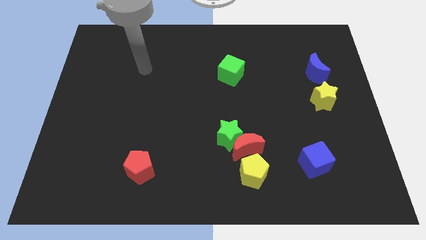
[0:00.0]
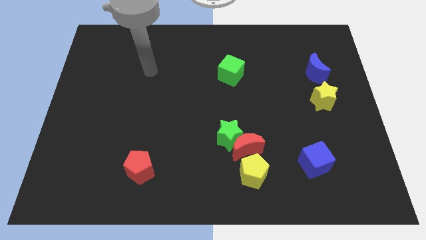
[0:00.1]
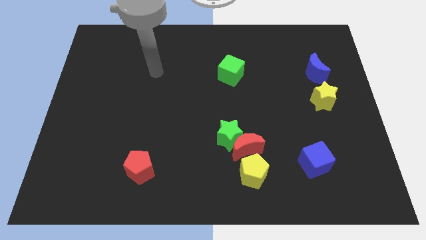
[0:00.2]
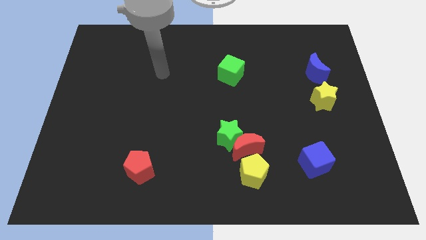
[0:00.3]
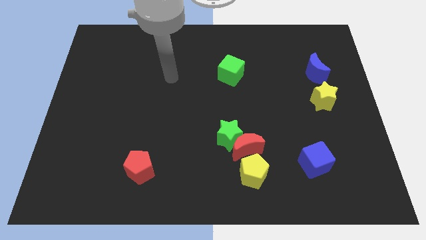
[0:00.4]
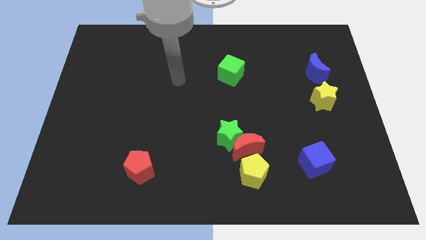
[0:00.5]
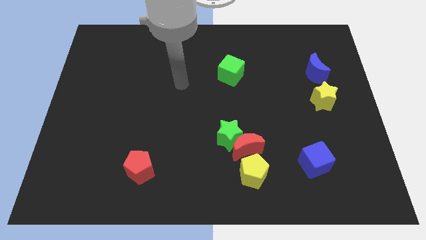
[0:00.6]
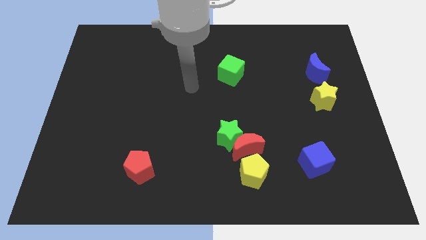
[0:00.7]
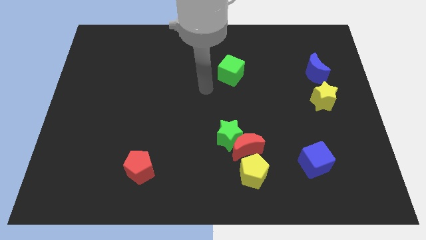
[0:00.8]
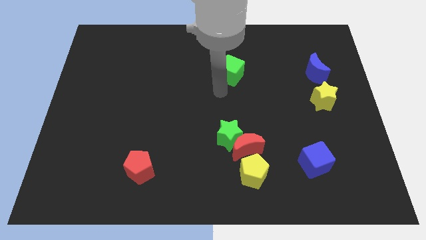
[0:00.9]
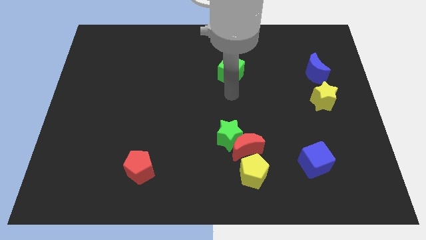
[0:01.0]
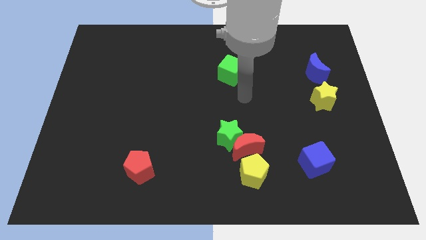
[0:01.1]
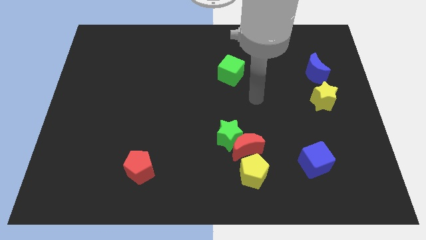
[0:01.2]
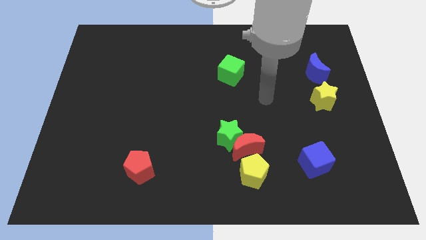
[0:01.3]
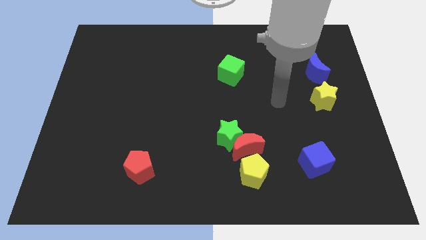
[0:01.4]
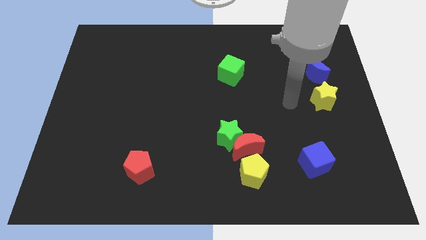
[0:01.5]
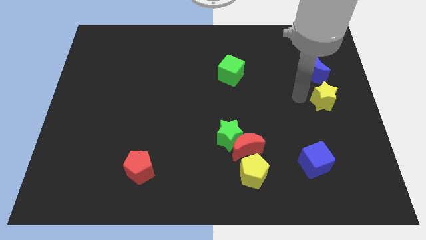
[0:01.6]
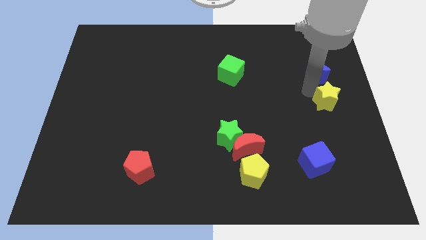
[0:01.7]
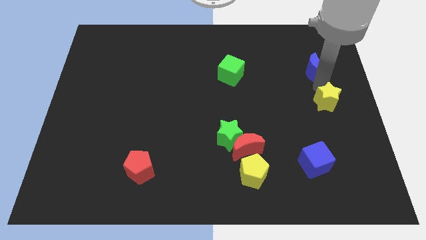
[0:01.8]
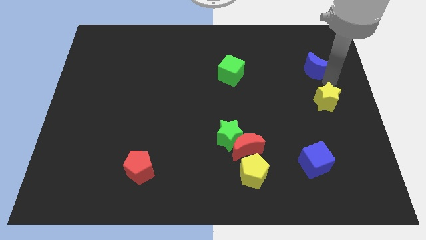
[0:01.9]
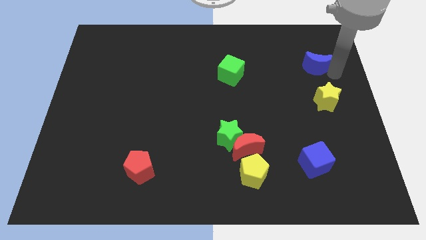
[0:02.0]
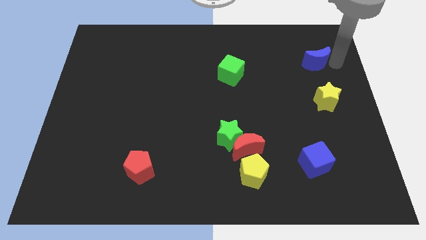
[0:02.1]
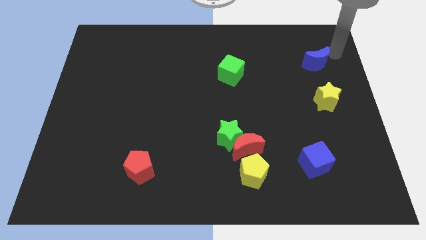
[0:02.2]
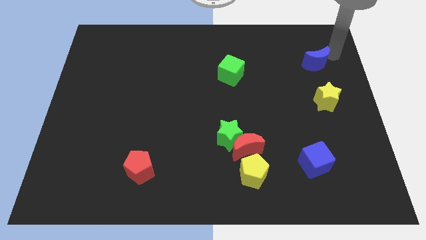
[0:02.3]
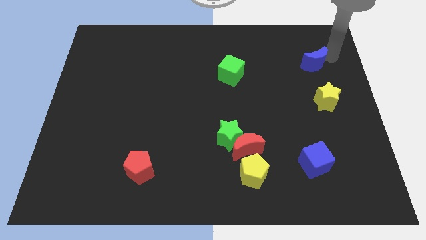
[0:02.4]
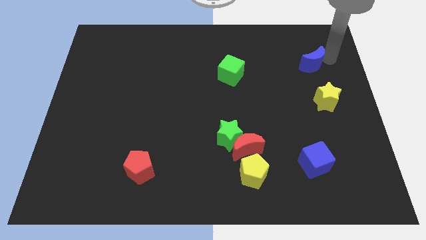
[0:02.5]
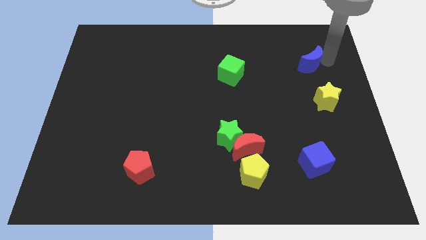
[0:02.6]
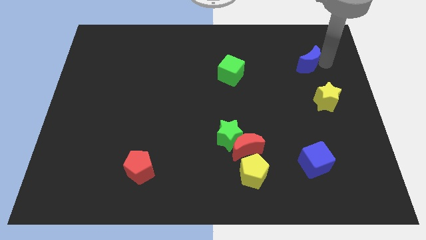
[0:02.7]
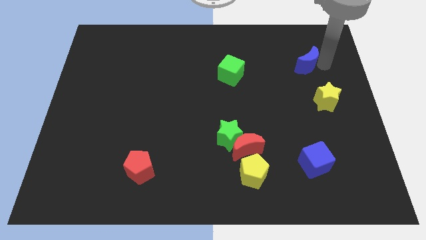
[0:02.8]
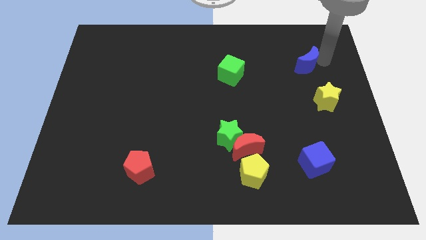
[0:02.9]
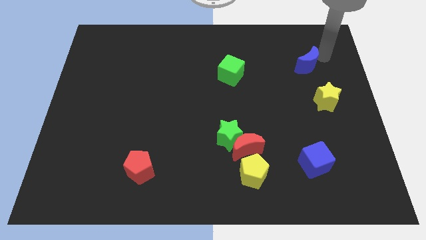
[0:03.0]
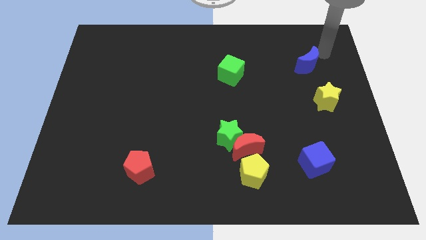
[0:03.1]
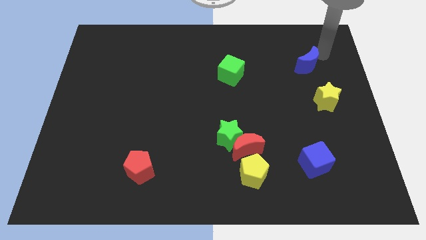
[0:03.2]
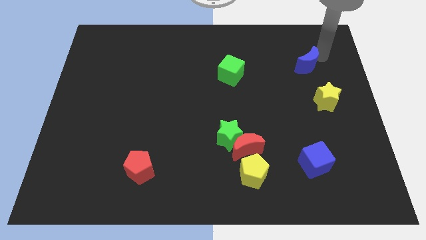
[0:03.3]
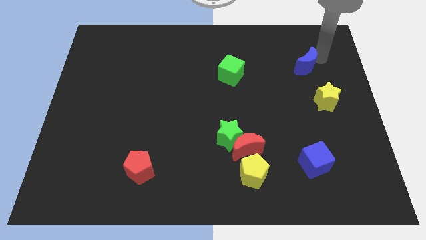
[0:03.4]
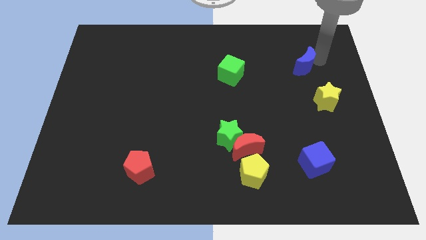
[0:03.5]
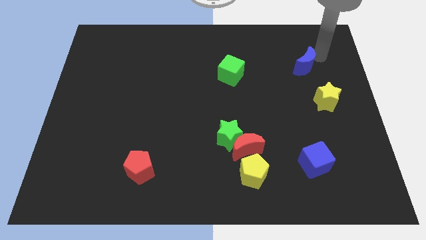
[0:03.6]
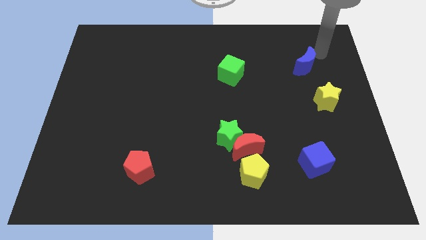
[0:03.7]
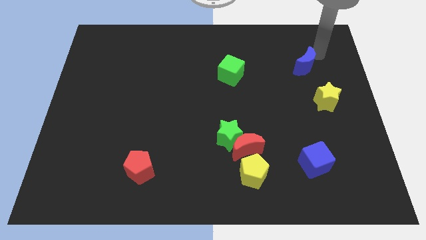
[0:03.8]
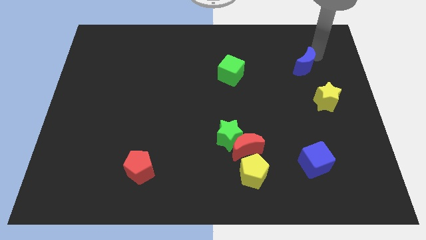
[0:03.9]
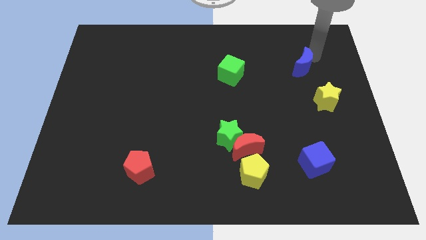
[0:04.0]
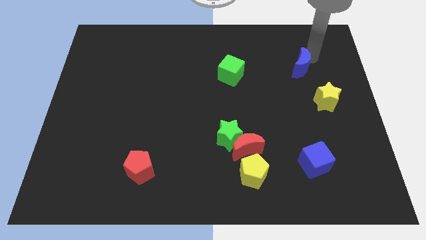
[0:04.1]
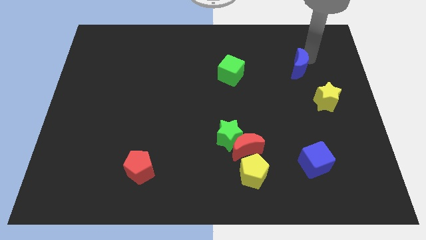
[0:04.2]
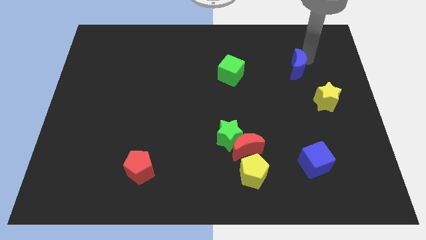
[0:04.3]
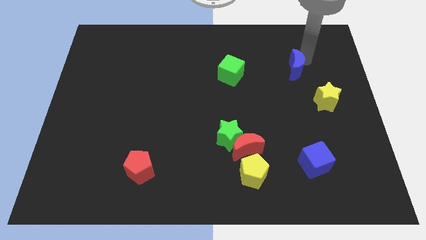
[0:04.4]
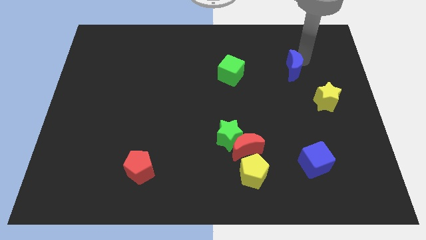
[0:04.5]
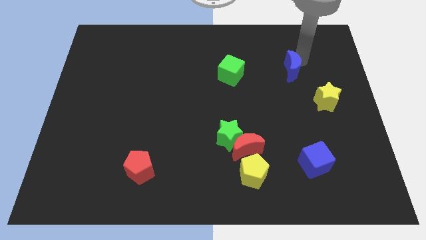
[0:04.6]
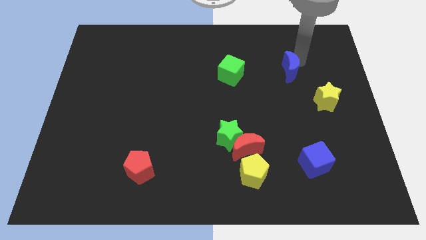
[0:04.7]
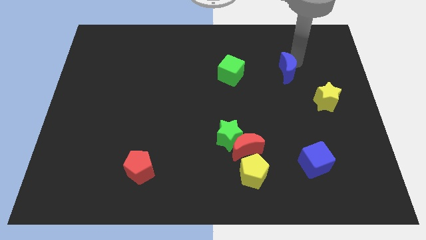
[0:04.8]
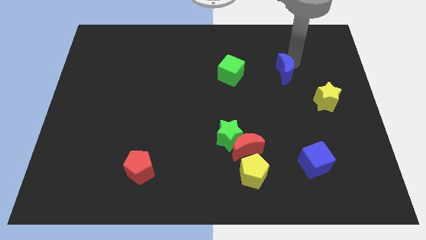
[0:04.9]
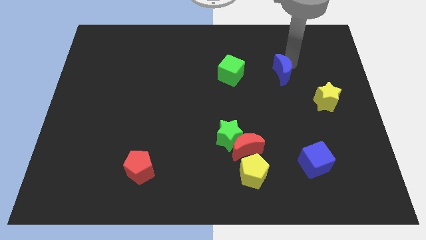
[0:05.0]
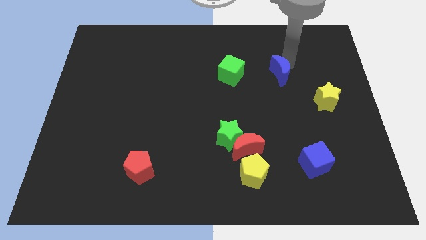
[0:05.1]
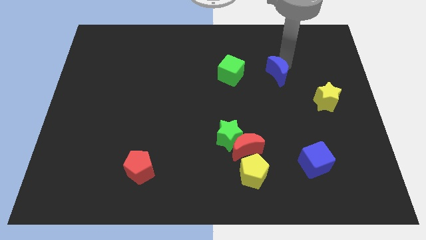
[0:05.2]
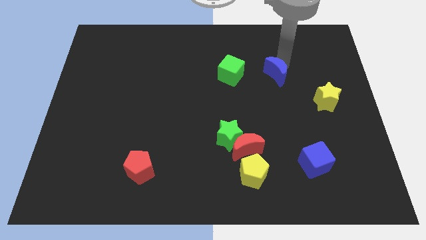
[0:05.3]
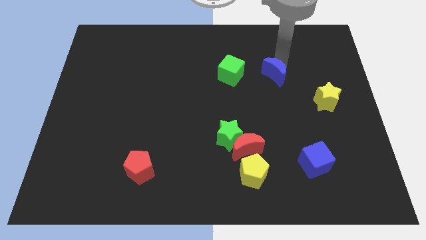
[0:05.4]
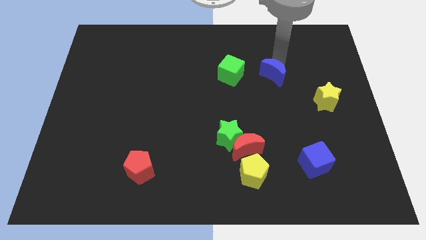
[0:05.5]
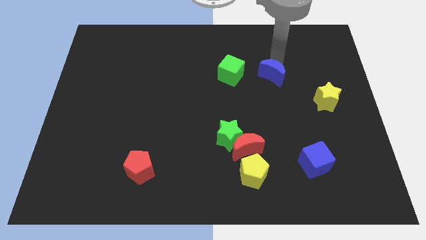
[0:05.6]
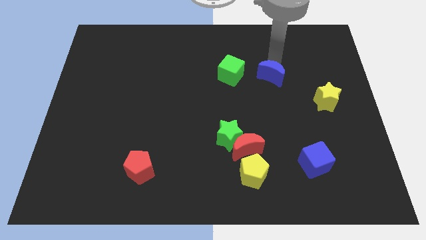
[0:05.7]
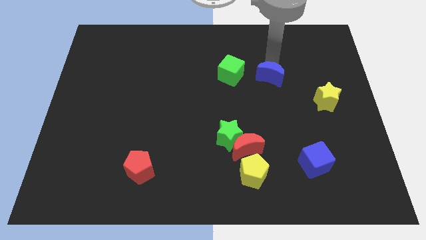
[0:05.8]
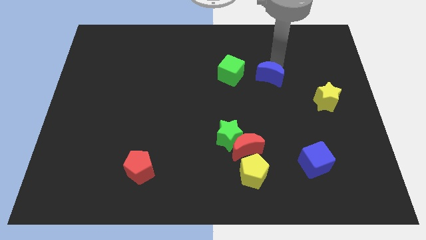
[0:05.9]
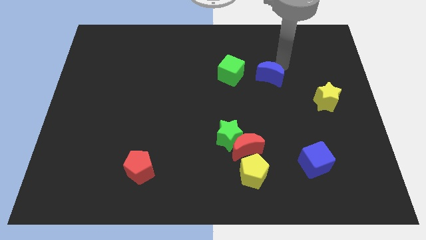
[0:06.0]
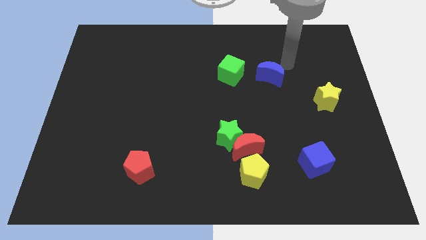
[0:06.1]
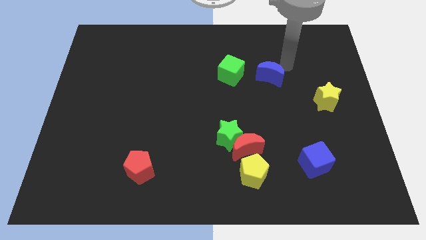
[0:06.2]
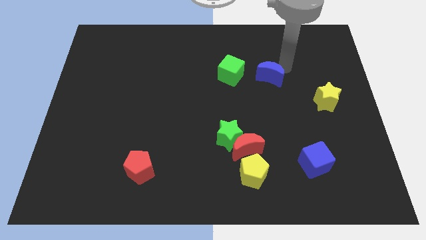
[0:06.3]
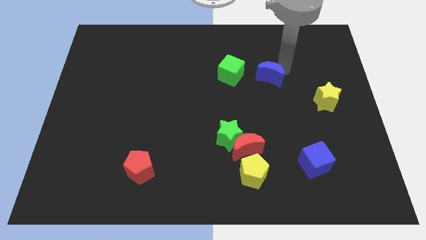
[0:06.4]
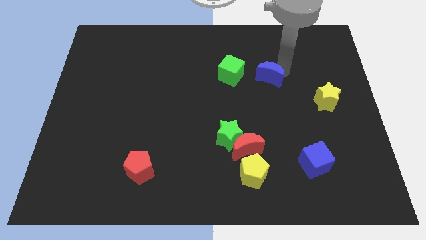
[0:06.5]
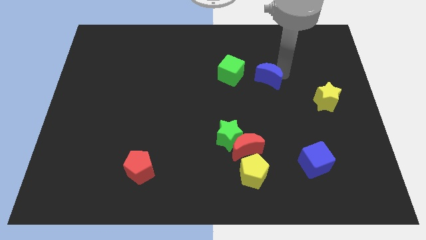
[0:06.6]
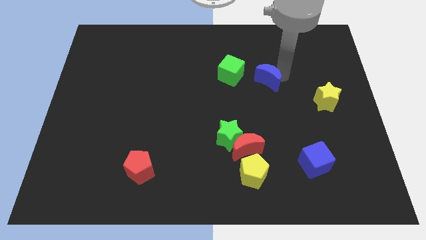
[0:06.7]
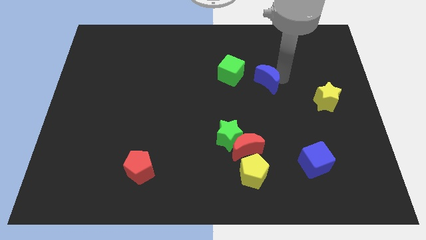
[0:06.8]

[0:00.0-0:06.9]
move the blue moon diagonally down and to the right of the green cube

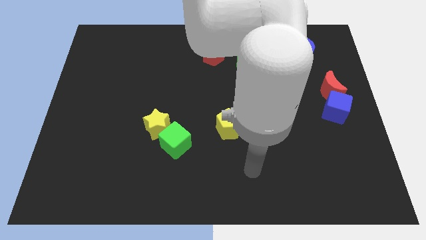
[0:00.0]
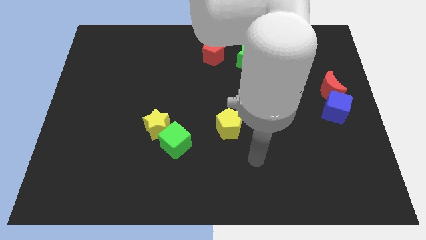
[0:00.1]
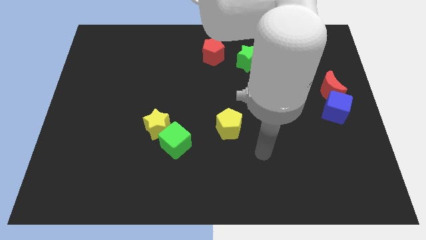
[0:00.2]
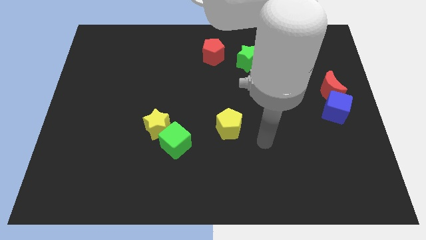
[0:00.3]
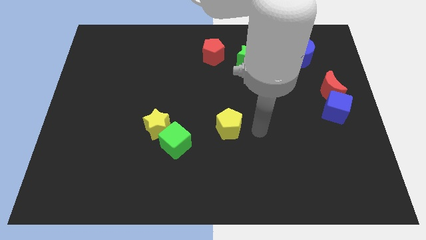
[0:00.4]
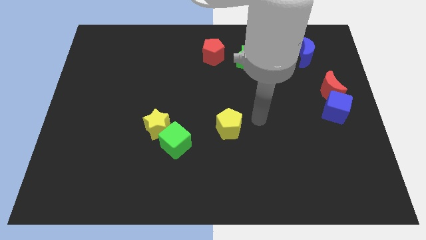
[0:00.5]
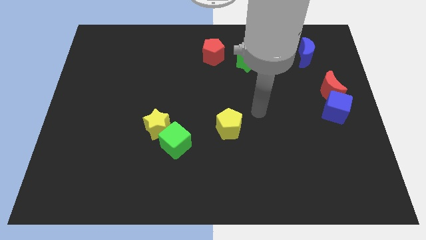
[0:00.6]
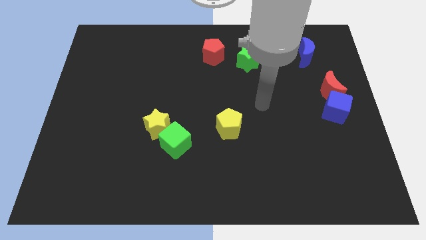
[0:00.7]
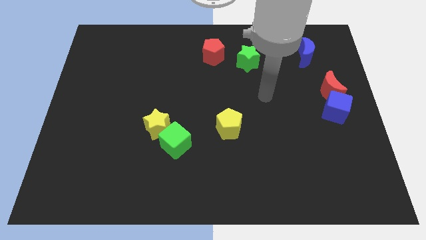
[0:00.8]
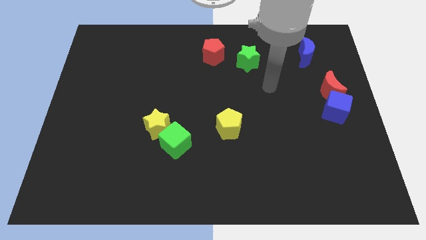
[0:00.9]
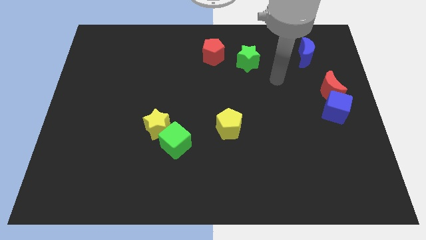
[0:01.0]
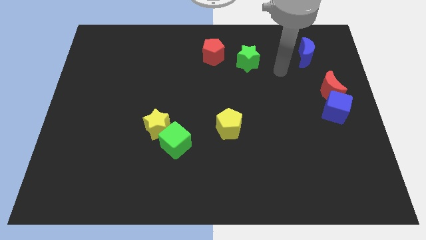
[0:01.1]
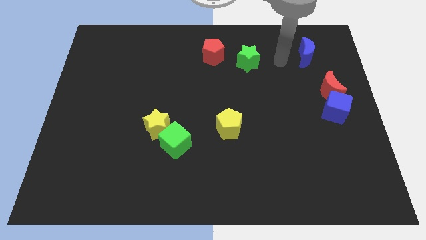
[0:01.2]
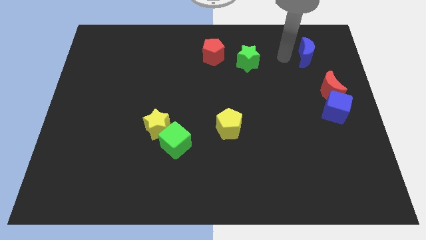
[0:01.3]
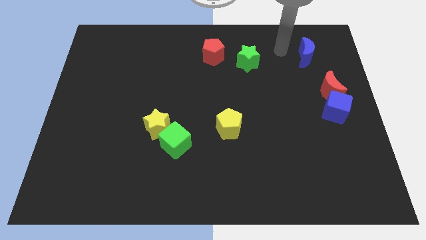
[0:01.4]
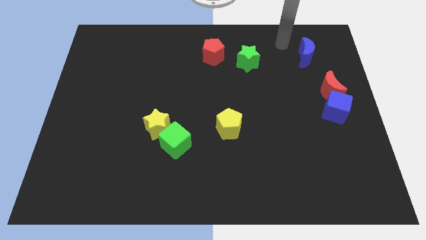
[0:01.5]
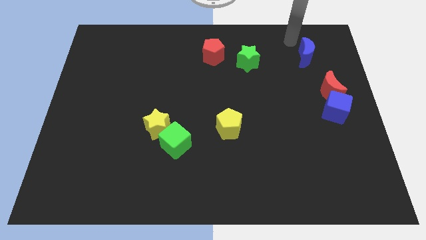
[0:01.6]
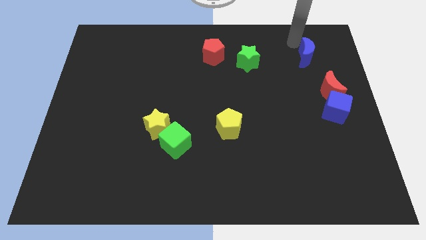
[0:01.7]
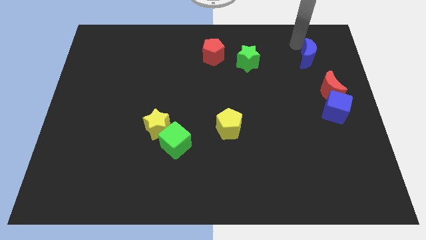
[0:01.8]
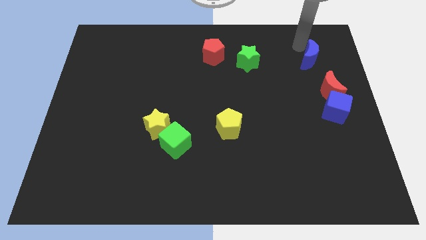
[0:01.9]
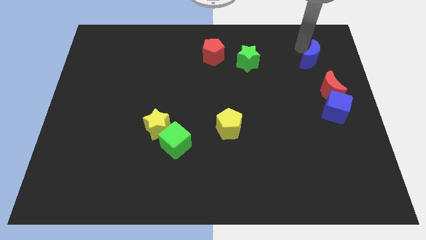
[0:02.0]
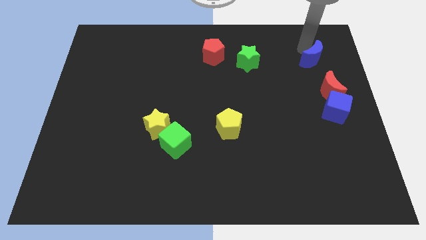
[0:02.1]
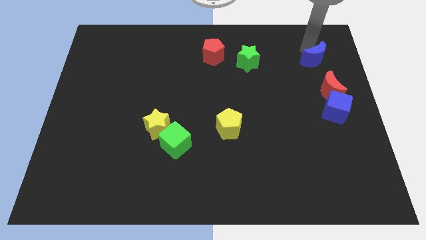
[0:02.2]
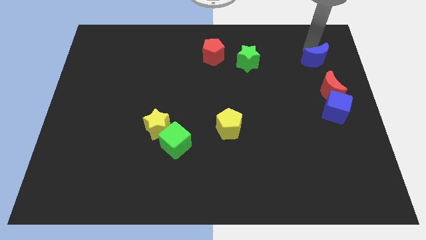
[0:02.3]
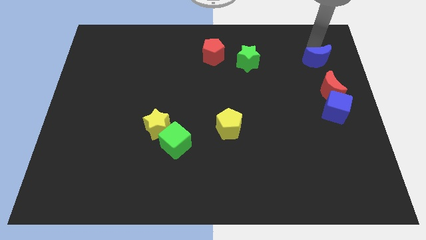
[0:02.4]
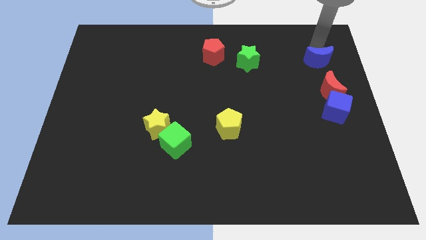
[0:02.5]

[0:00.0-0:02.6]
push the blue moon above the blue cube
